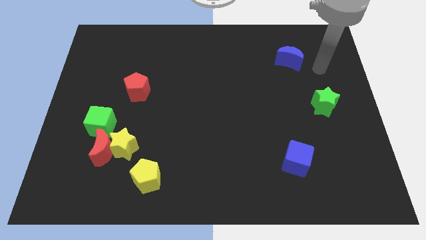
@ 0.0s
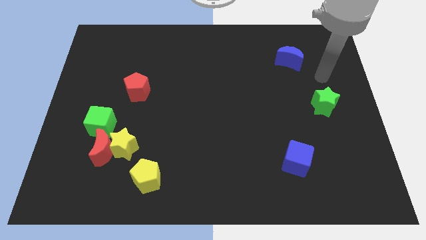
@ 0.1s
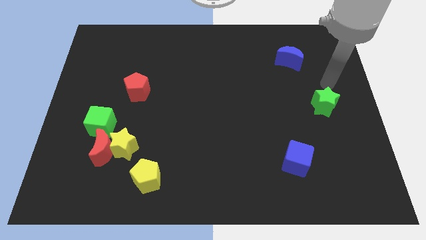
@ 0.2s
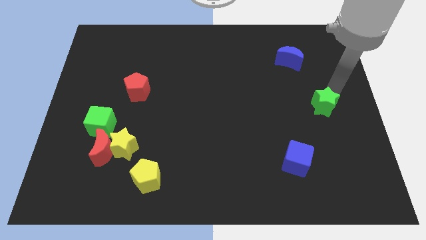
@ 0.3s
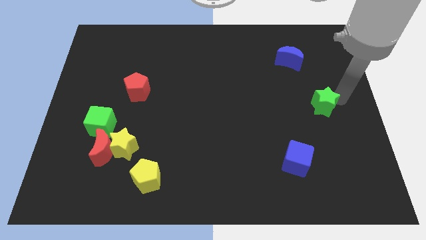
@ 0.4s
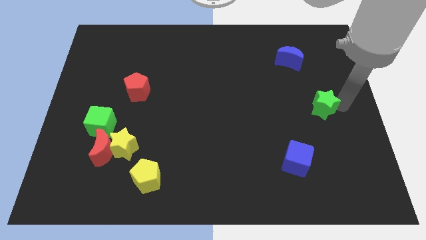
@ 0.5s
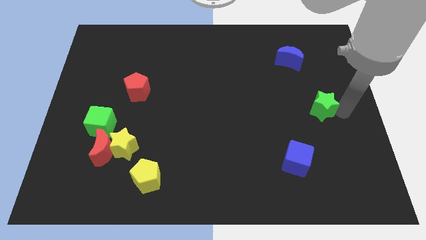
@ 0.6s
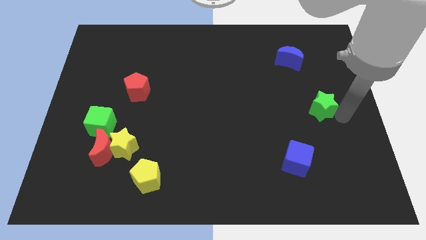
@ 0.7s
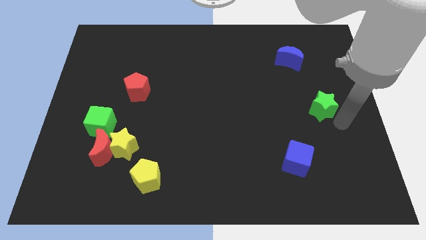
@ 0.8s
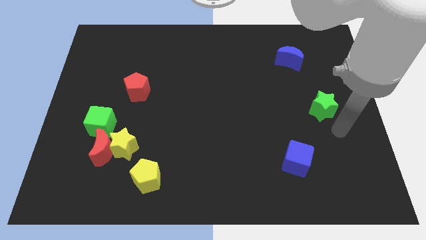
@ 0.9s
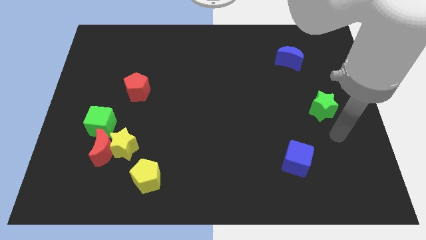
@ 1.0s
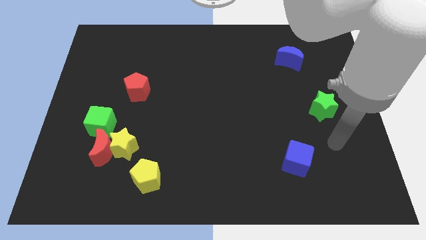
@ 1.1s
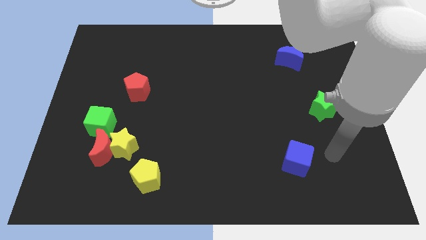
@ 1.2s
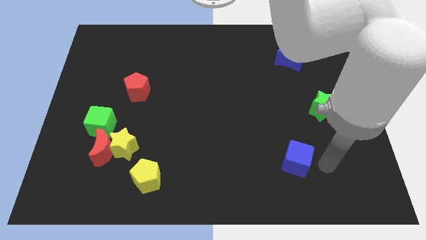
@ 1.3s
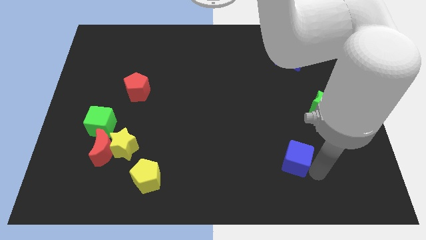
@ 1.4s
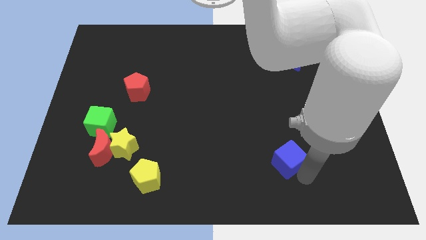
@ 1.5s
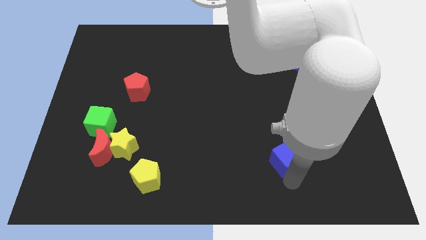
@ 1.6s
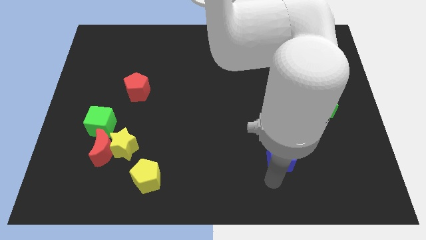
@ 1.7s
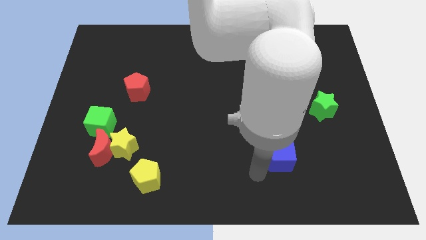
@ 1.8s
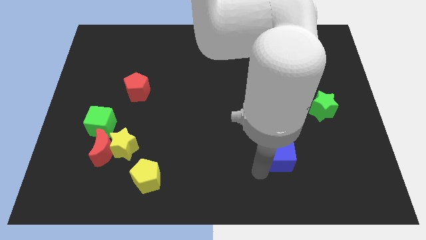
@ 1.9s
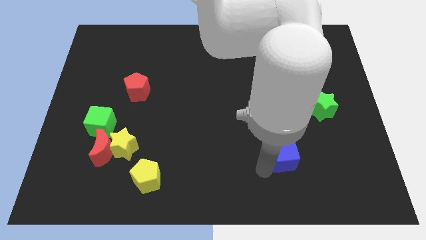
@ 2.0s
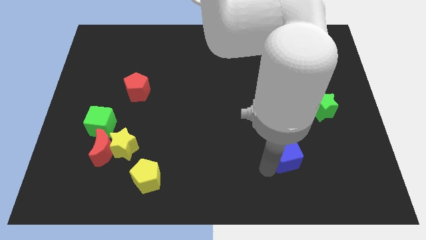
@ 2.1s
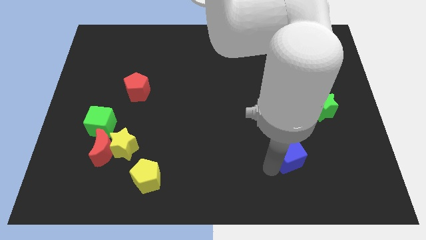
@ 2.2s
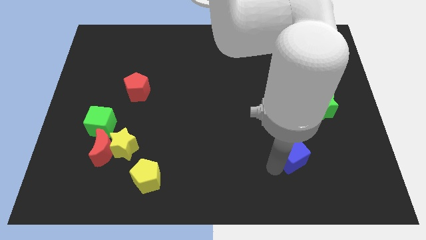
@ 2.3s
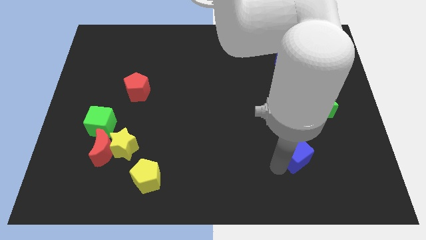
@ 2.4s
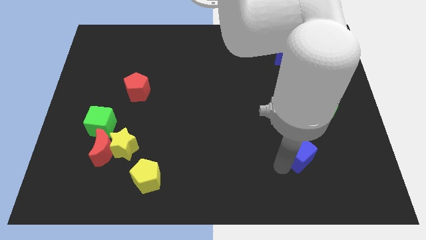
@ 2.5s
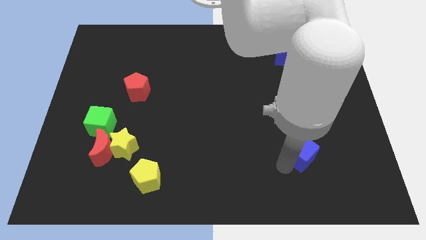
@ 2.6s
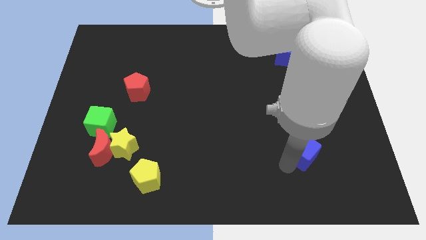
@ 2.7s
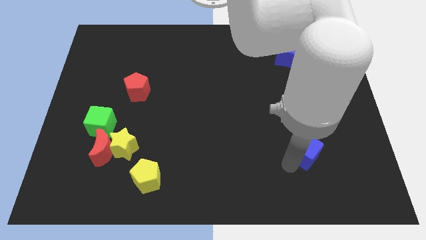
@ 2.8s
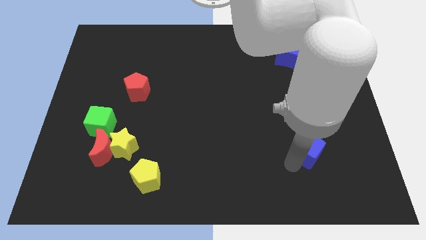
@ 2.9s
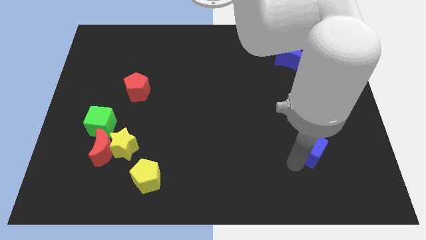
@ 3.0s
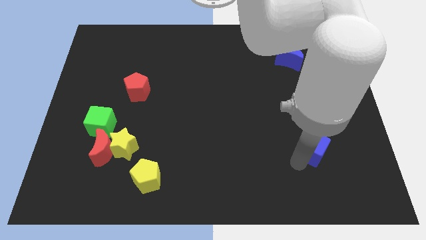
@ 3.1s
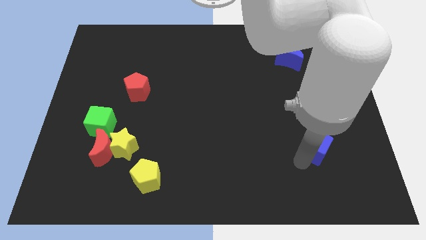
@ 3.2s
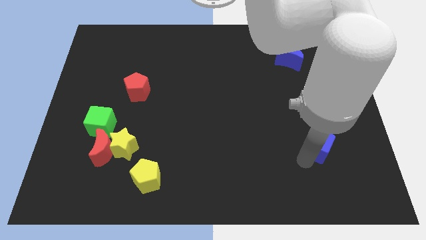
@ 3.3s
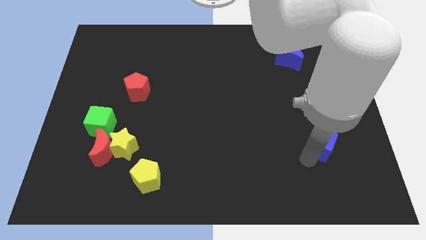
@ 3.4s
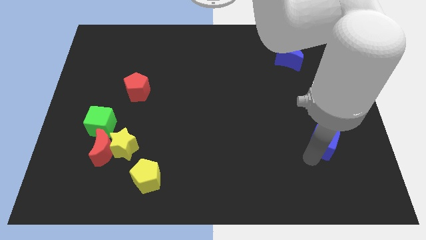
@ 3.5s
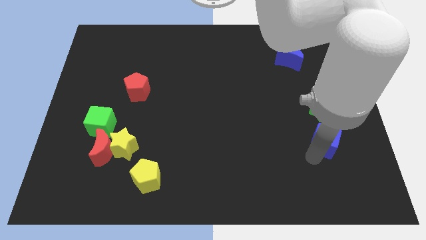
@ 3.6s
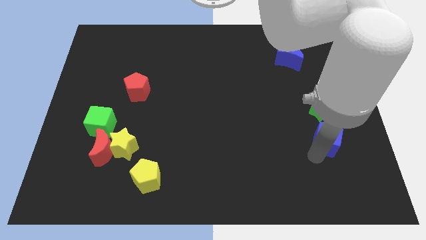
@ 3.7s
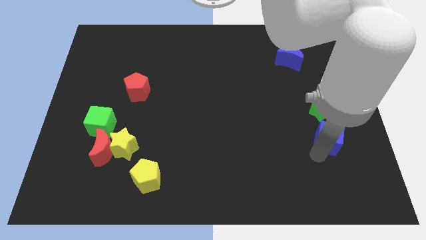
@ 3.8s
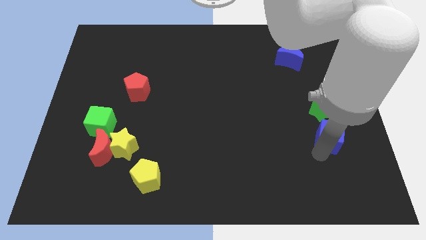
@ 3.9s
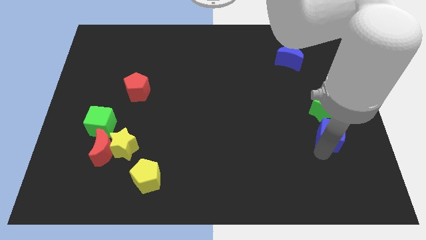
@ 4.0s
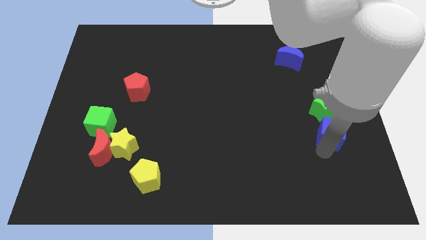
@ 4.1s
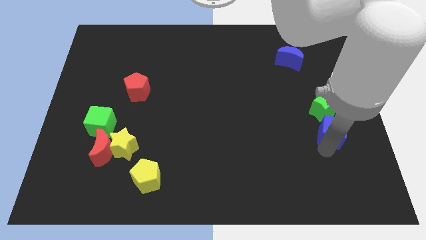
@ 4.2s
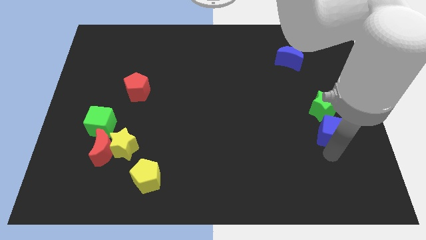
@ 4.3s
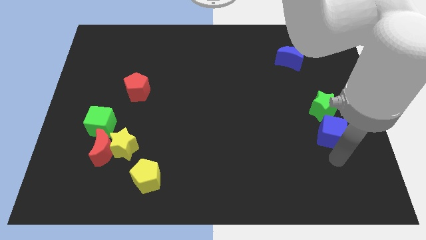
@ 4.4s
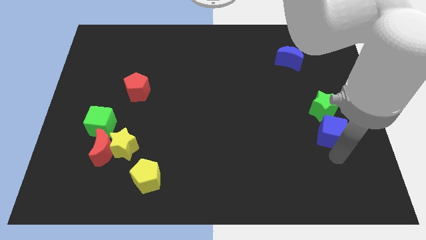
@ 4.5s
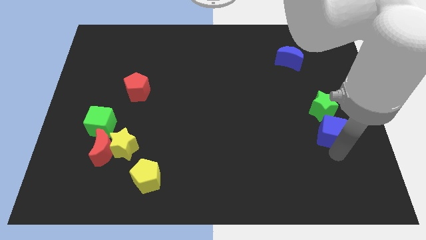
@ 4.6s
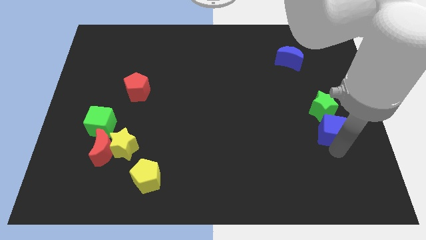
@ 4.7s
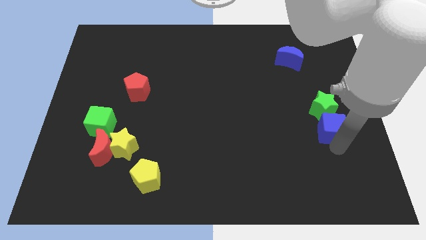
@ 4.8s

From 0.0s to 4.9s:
push the blue cube close to the green star

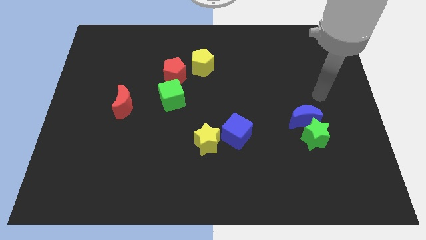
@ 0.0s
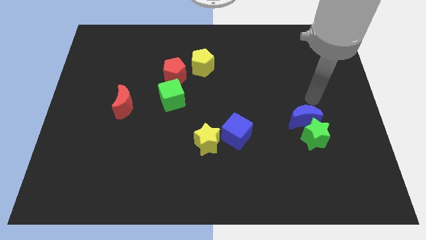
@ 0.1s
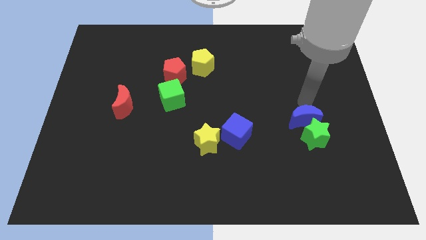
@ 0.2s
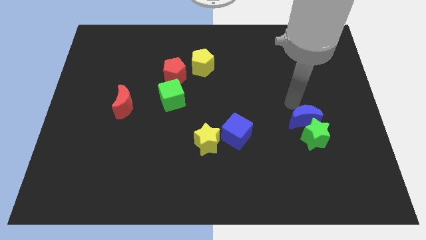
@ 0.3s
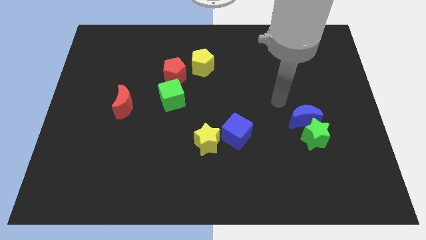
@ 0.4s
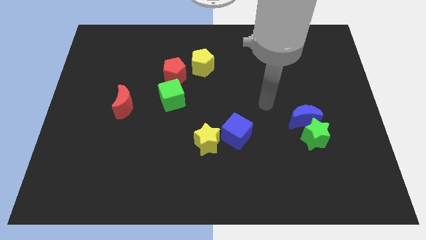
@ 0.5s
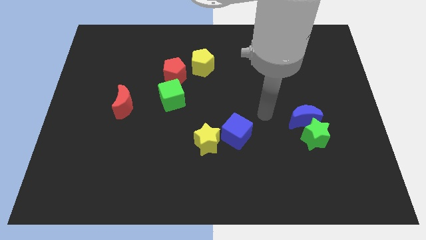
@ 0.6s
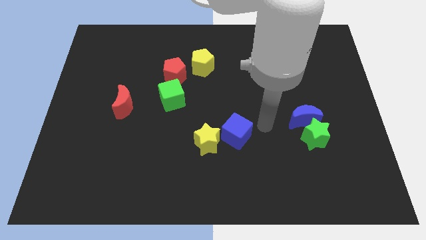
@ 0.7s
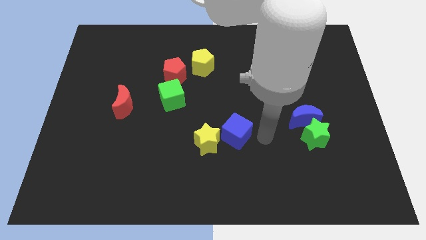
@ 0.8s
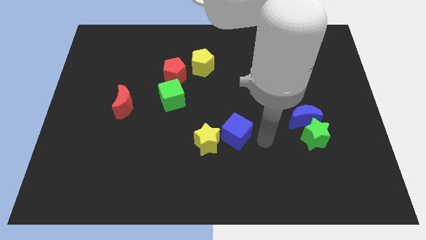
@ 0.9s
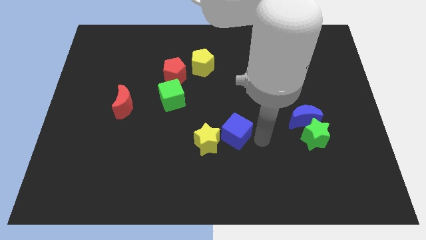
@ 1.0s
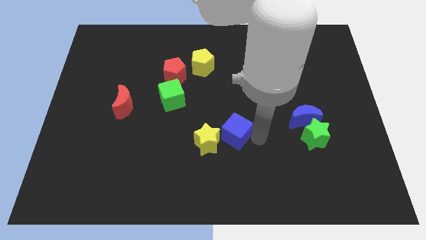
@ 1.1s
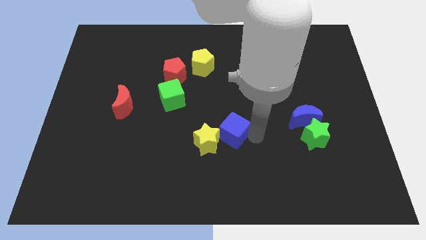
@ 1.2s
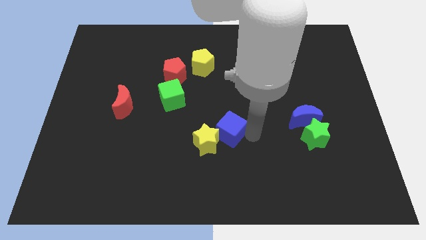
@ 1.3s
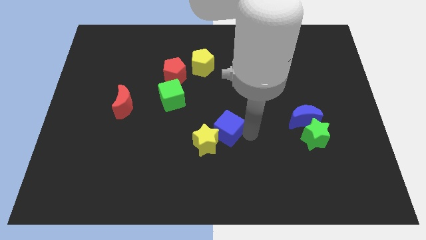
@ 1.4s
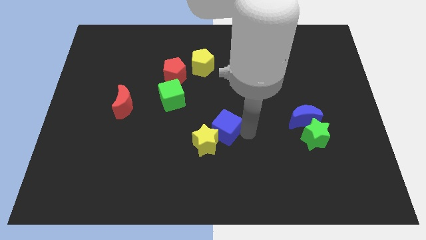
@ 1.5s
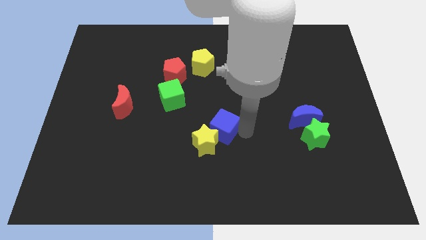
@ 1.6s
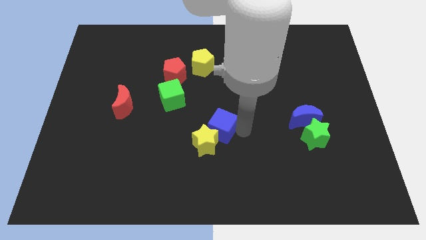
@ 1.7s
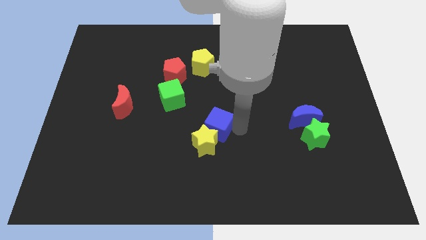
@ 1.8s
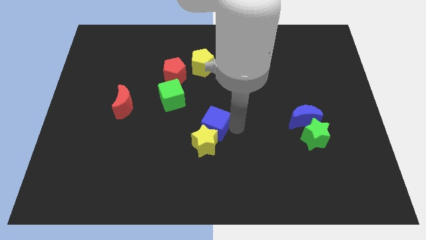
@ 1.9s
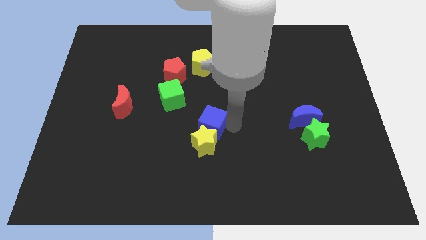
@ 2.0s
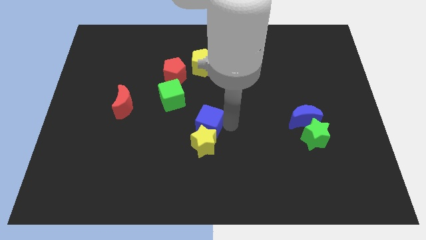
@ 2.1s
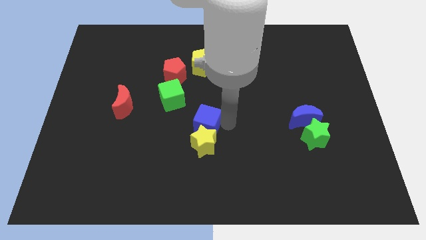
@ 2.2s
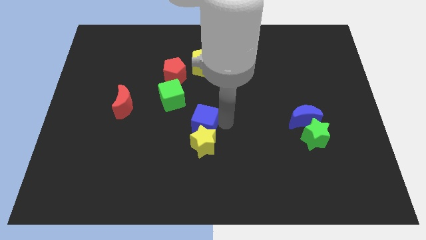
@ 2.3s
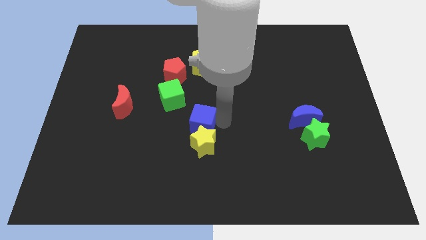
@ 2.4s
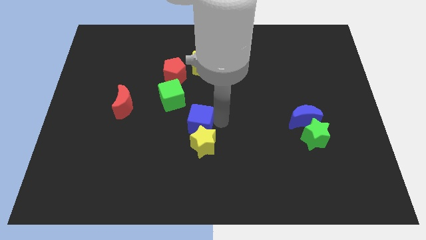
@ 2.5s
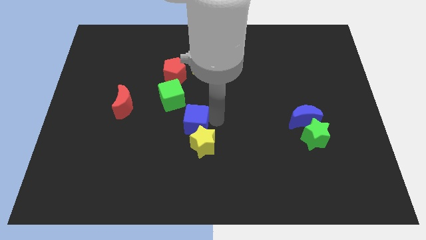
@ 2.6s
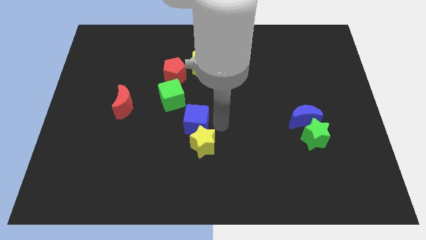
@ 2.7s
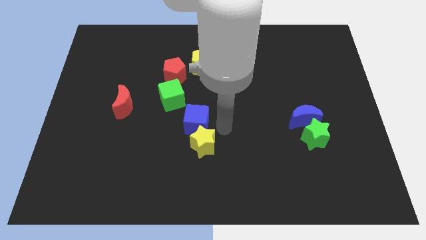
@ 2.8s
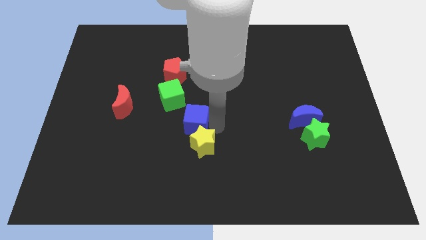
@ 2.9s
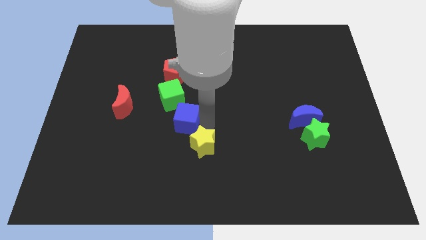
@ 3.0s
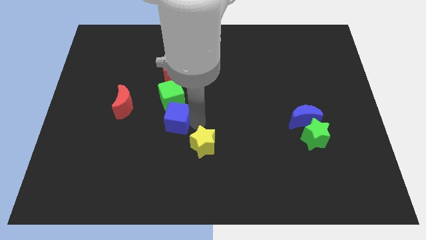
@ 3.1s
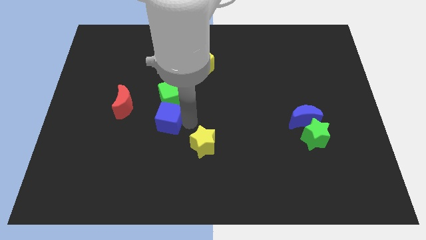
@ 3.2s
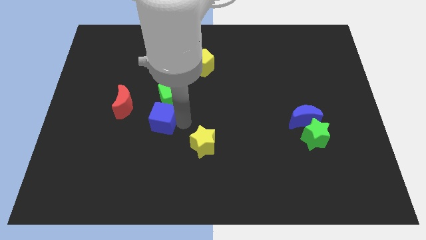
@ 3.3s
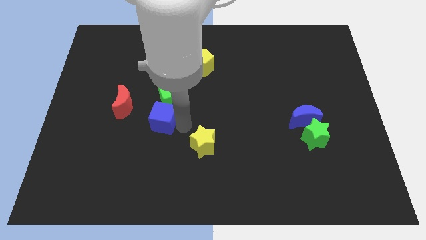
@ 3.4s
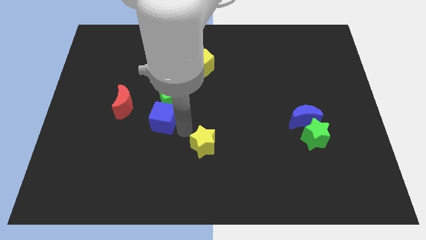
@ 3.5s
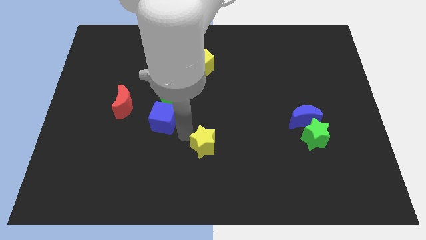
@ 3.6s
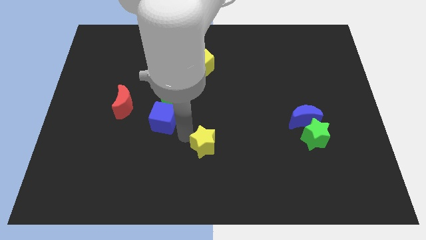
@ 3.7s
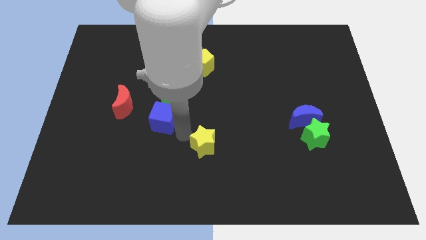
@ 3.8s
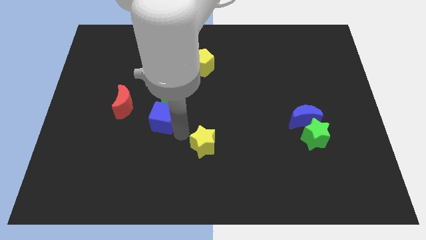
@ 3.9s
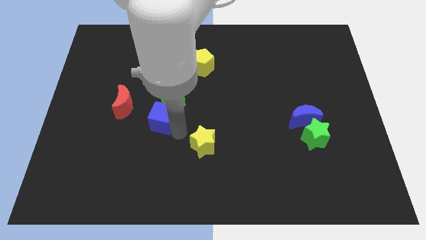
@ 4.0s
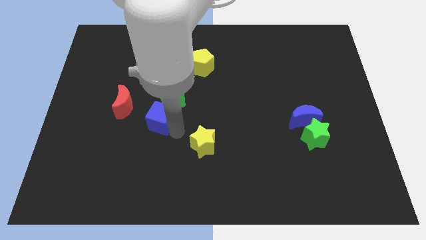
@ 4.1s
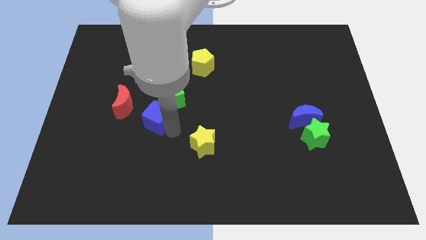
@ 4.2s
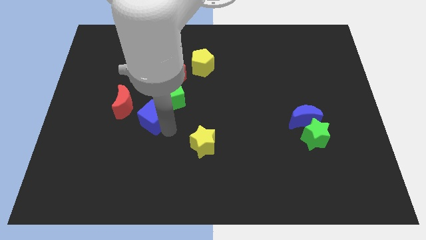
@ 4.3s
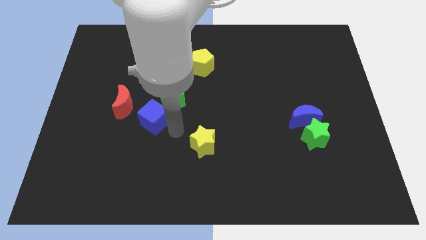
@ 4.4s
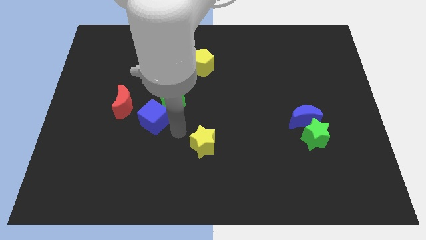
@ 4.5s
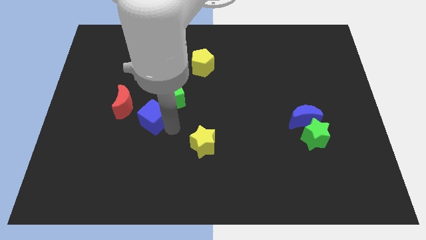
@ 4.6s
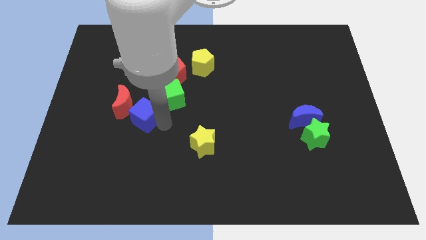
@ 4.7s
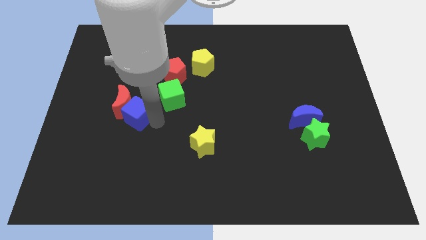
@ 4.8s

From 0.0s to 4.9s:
put the blue cube next to the red moon
